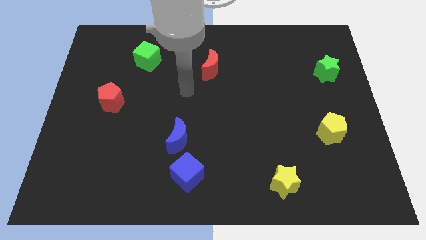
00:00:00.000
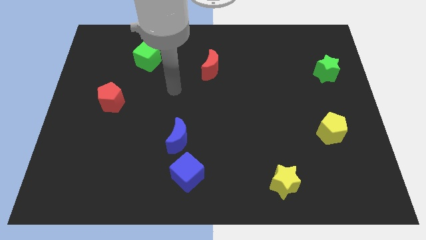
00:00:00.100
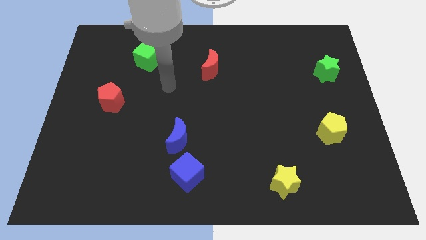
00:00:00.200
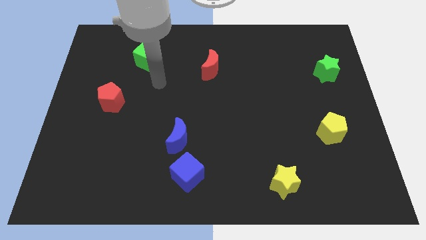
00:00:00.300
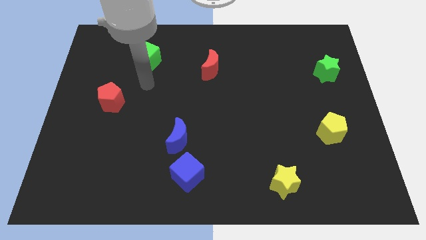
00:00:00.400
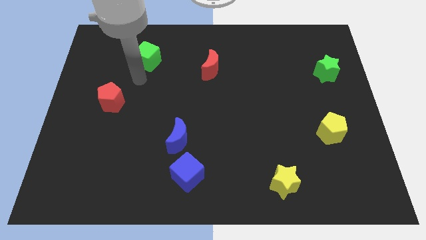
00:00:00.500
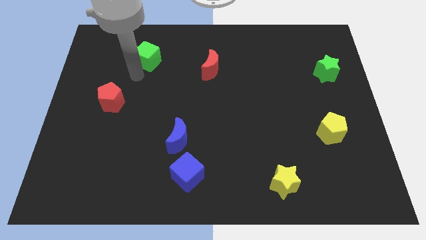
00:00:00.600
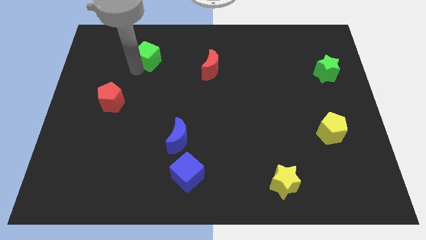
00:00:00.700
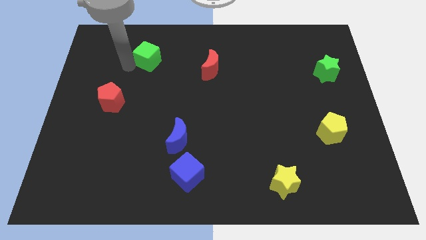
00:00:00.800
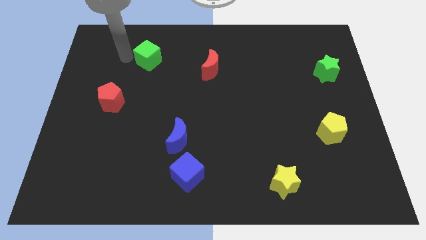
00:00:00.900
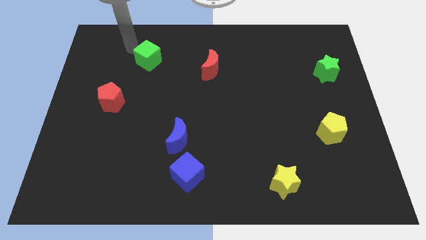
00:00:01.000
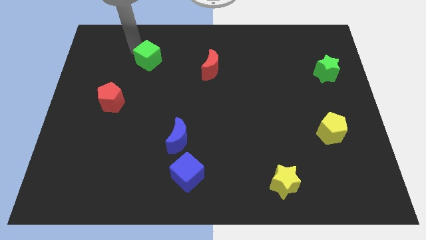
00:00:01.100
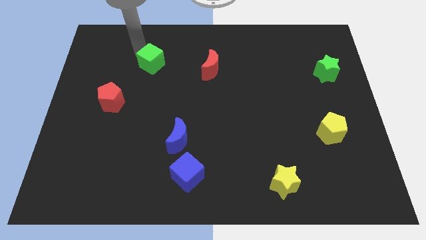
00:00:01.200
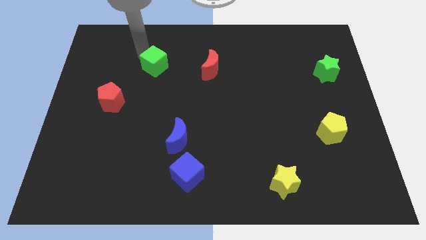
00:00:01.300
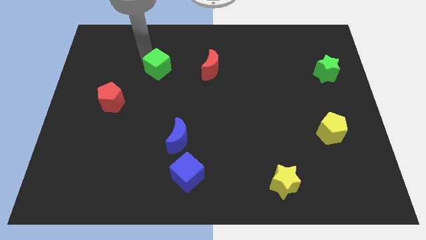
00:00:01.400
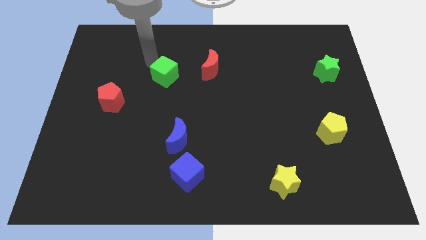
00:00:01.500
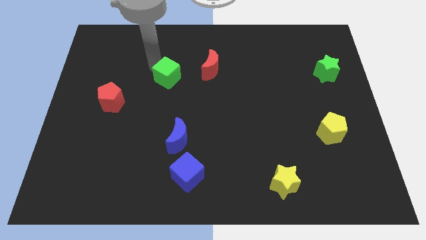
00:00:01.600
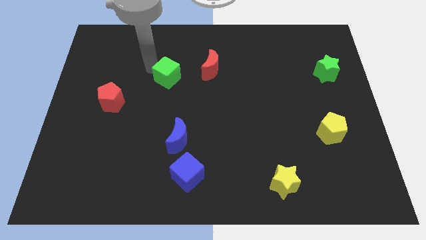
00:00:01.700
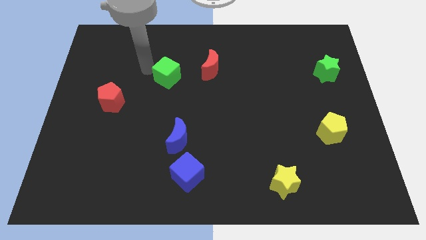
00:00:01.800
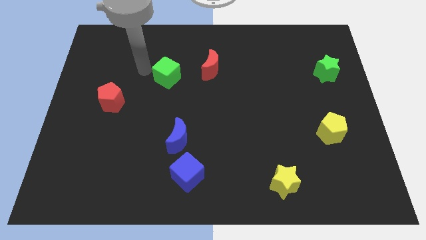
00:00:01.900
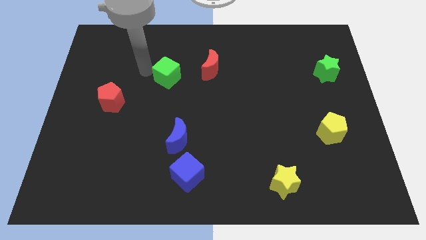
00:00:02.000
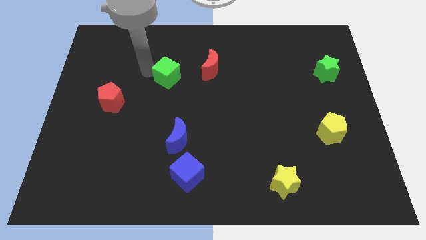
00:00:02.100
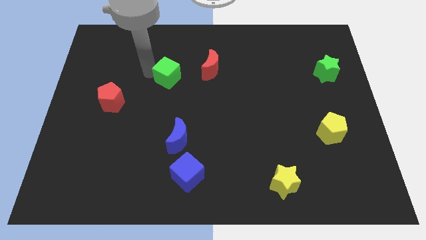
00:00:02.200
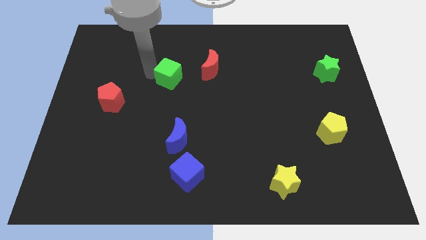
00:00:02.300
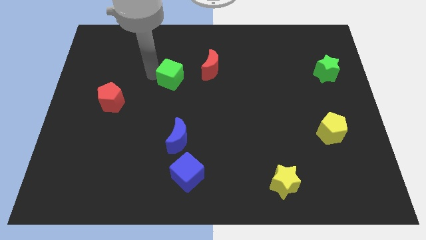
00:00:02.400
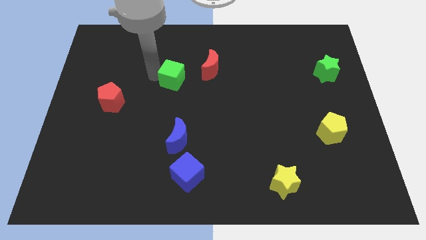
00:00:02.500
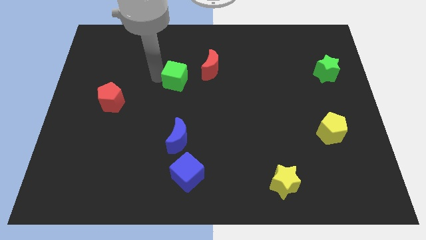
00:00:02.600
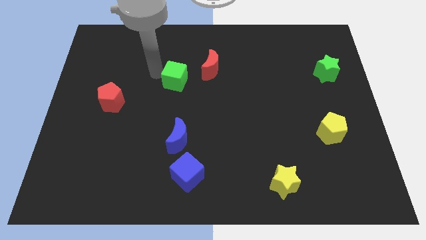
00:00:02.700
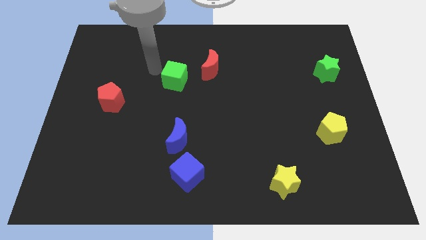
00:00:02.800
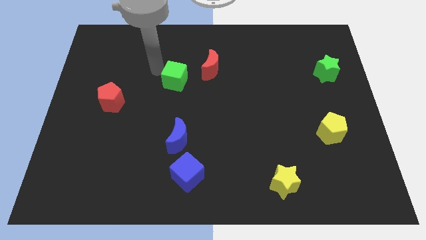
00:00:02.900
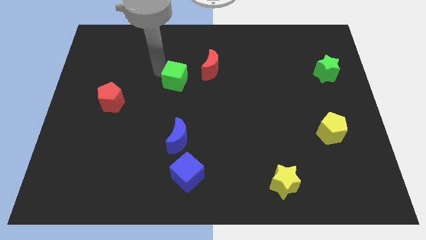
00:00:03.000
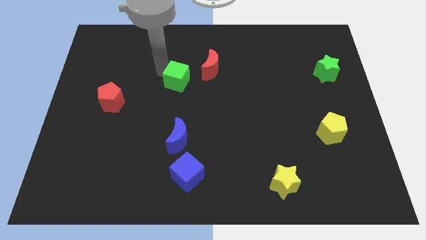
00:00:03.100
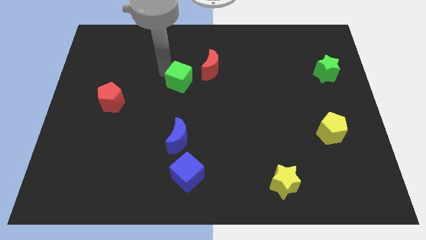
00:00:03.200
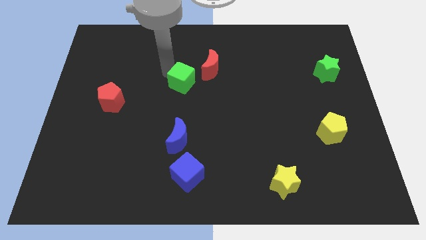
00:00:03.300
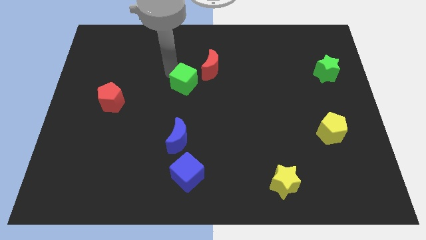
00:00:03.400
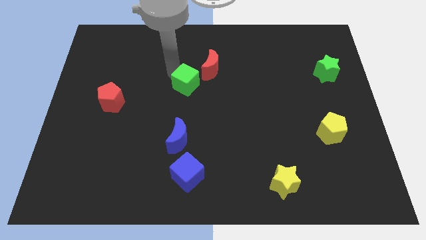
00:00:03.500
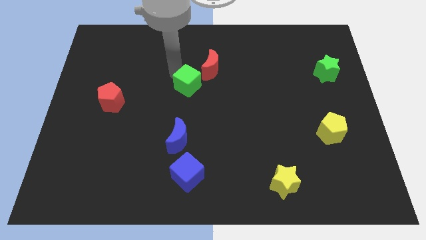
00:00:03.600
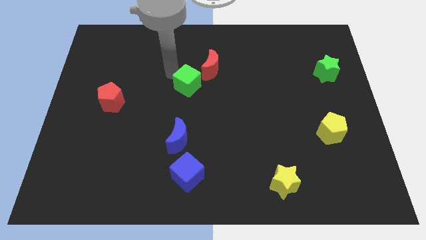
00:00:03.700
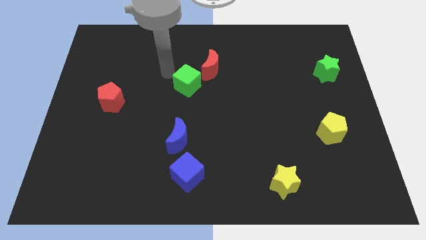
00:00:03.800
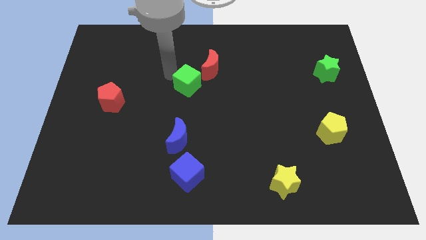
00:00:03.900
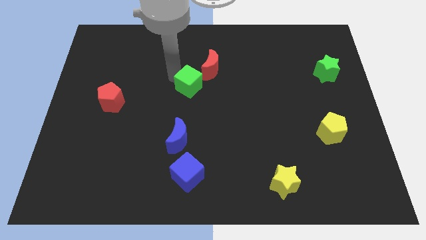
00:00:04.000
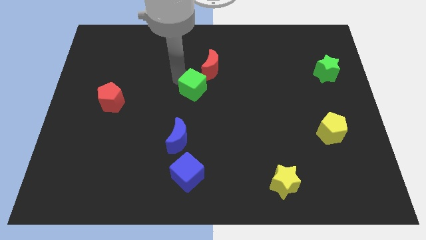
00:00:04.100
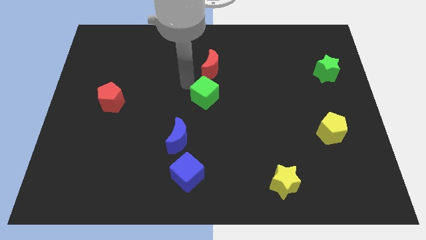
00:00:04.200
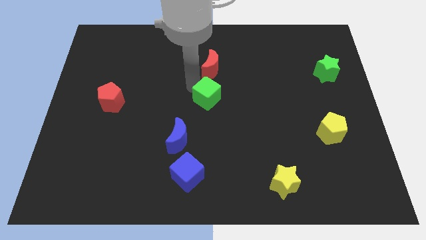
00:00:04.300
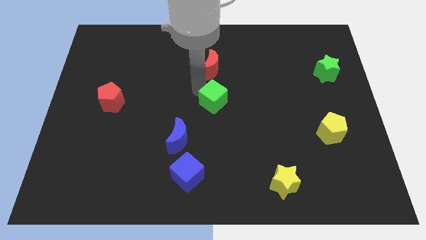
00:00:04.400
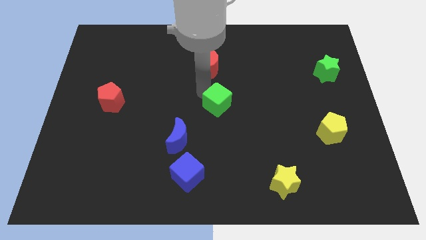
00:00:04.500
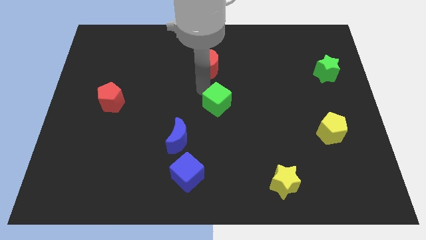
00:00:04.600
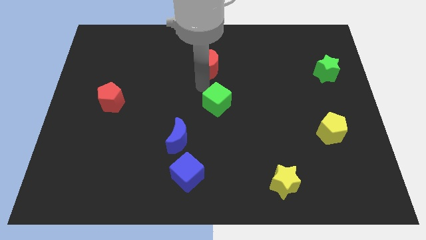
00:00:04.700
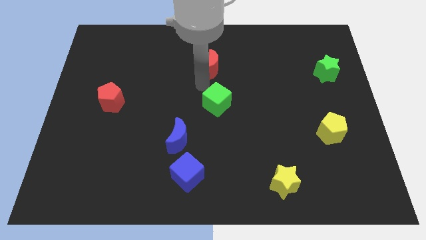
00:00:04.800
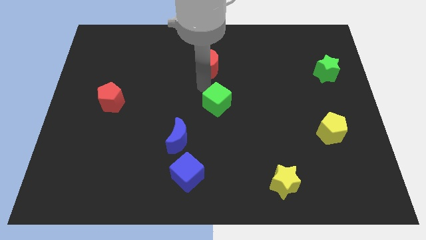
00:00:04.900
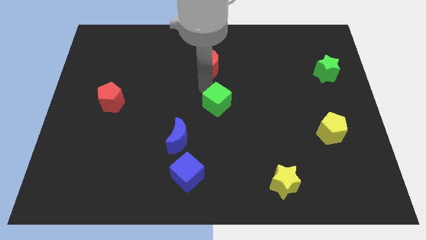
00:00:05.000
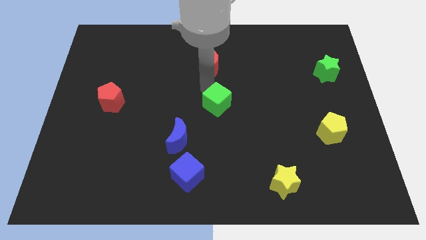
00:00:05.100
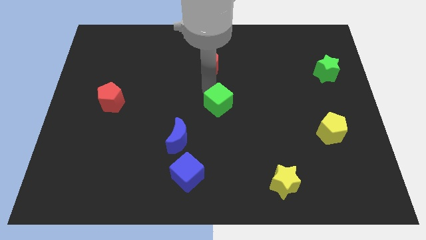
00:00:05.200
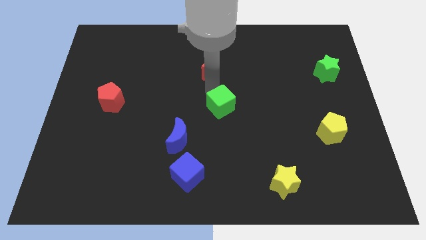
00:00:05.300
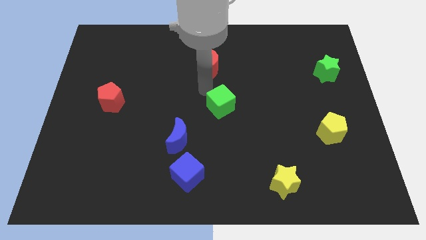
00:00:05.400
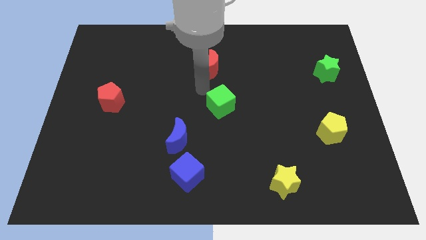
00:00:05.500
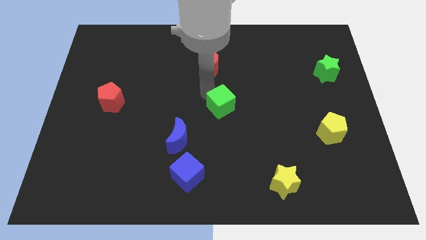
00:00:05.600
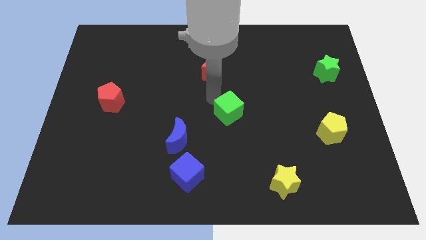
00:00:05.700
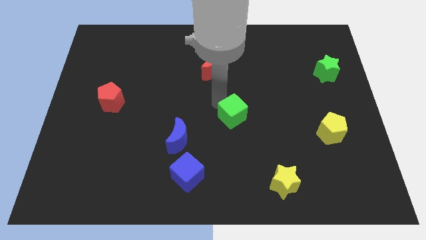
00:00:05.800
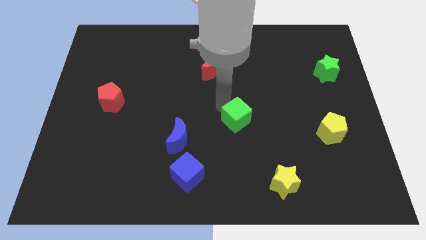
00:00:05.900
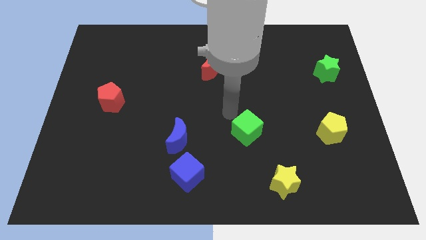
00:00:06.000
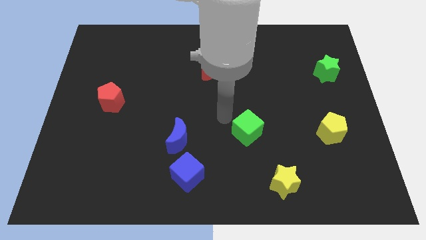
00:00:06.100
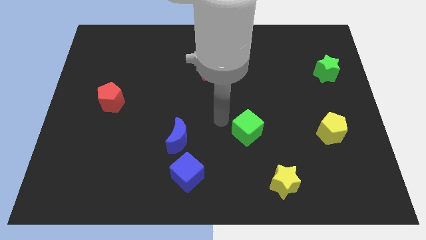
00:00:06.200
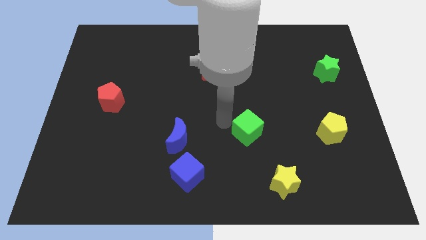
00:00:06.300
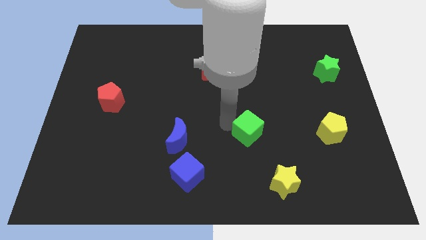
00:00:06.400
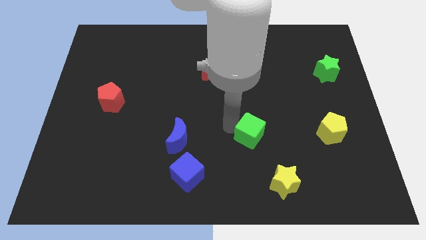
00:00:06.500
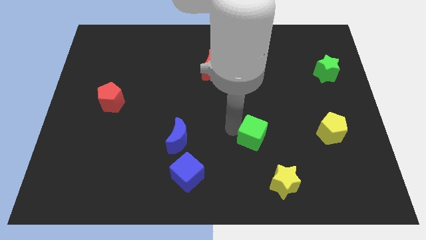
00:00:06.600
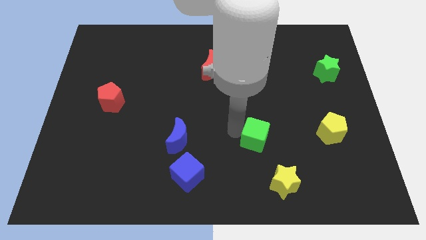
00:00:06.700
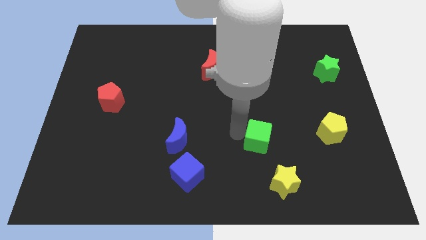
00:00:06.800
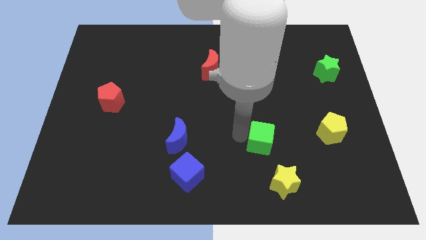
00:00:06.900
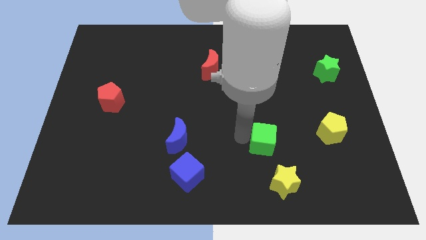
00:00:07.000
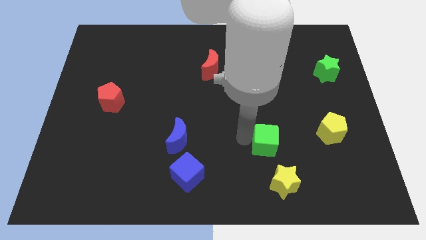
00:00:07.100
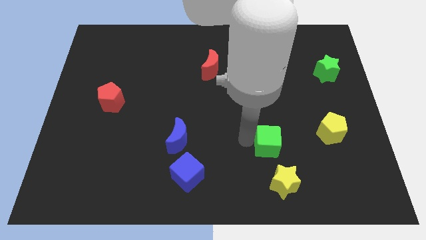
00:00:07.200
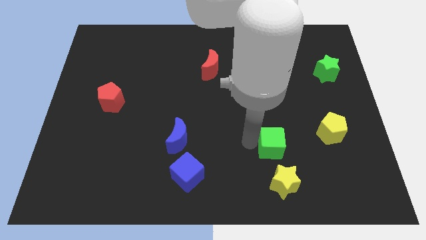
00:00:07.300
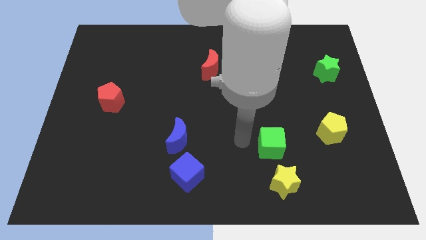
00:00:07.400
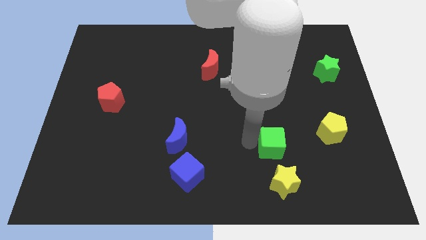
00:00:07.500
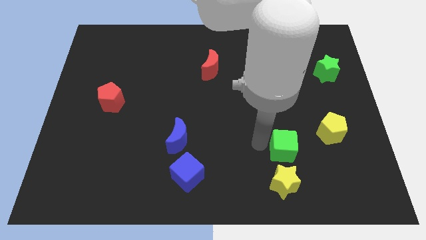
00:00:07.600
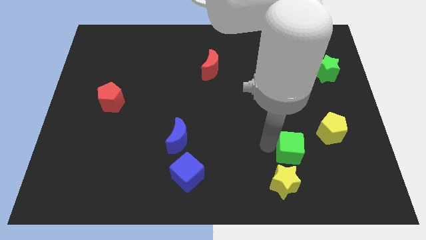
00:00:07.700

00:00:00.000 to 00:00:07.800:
push the green cube diagonally down and to the left of the yellow pentagon
